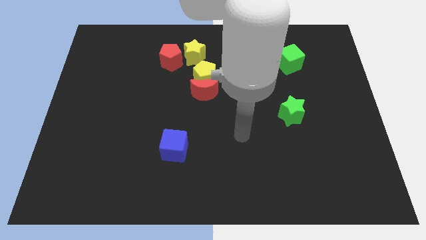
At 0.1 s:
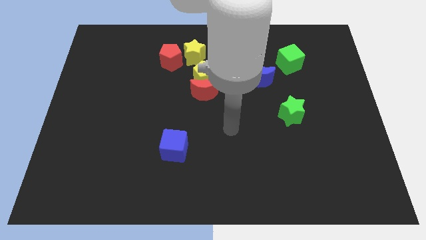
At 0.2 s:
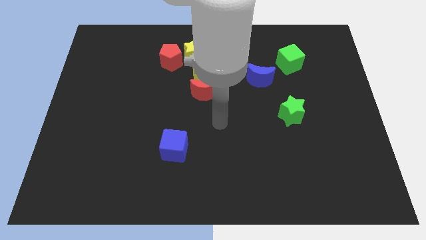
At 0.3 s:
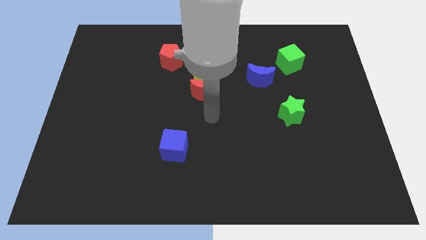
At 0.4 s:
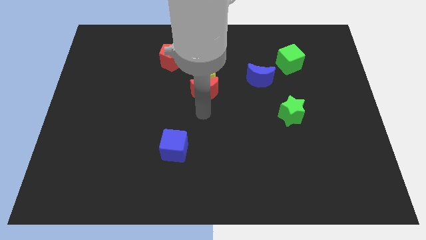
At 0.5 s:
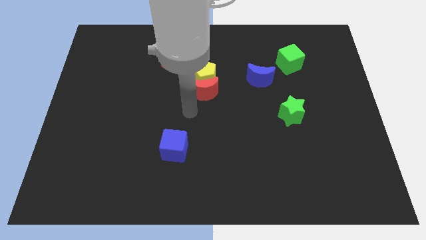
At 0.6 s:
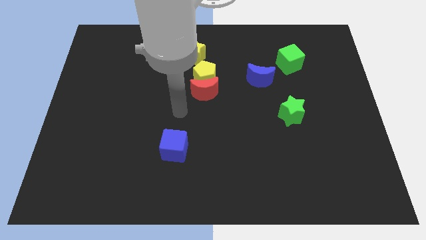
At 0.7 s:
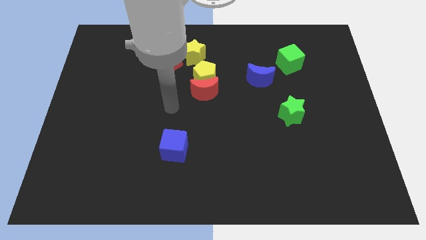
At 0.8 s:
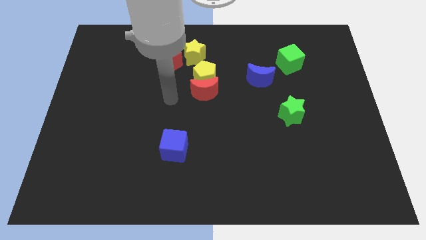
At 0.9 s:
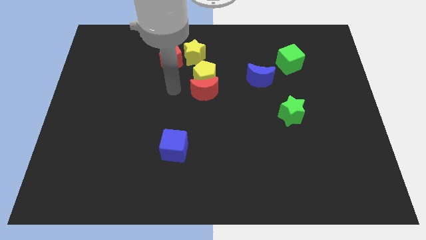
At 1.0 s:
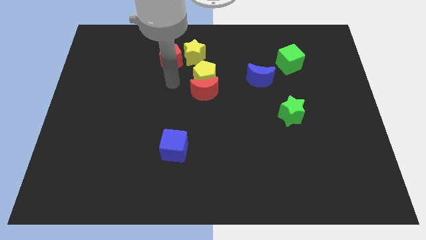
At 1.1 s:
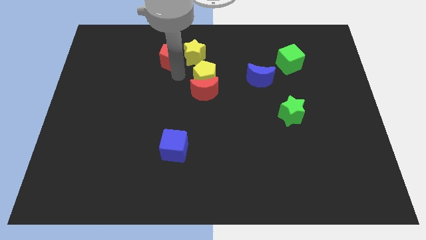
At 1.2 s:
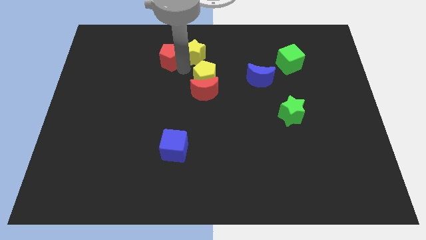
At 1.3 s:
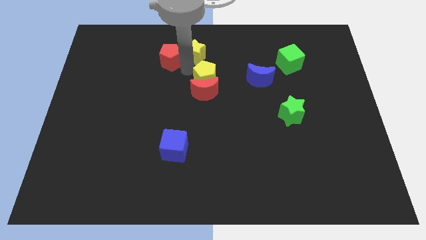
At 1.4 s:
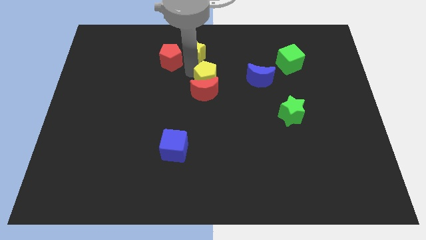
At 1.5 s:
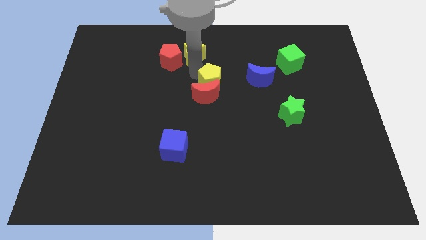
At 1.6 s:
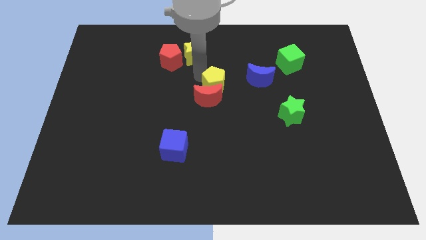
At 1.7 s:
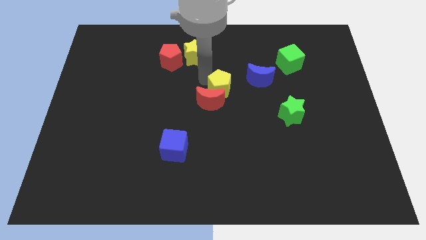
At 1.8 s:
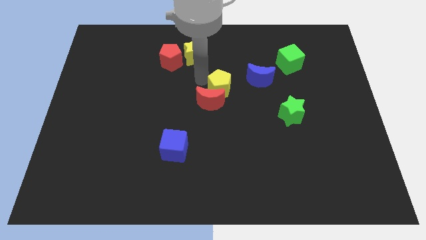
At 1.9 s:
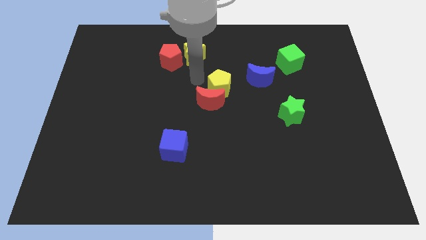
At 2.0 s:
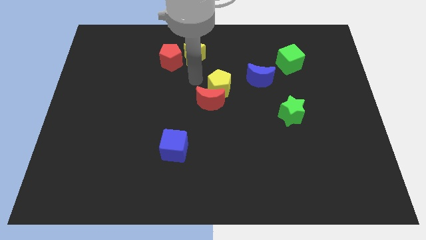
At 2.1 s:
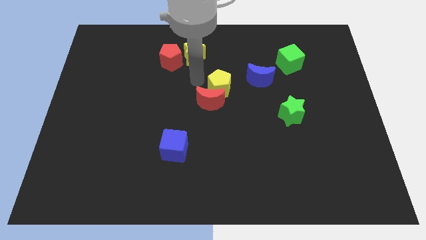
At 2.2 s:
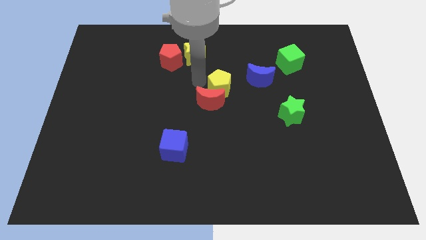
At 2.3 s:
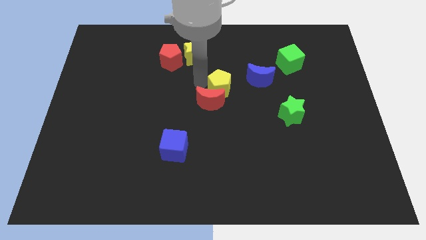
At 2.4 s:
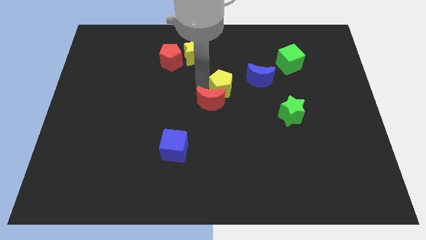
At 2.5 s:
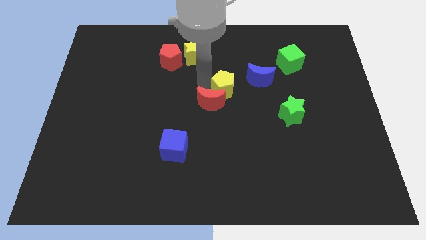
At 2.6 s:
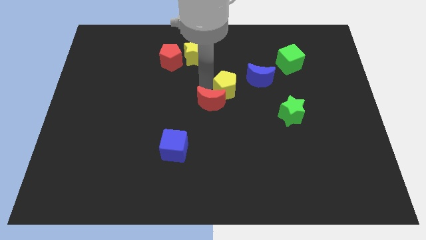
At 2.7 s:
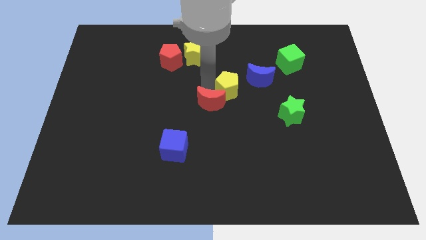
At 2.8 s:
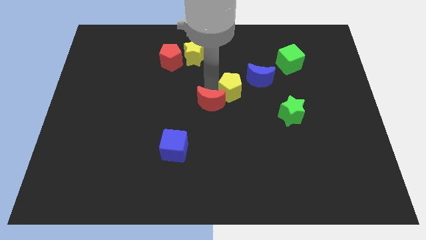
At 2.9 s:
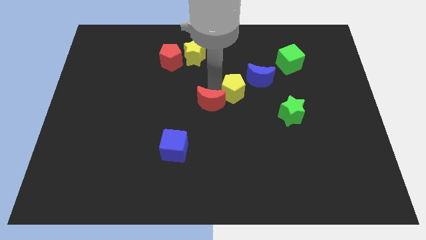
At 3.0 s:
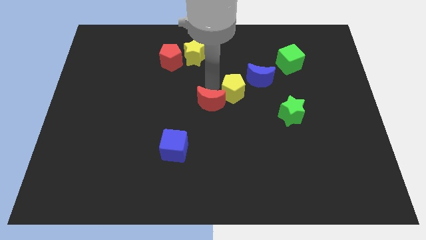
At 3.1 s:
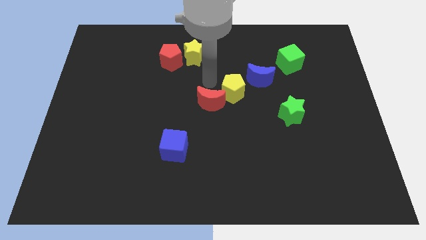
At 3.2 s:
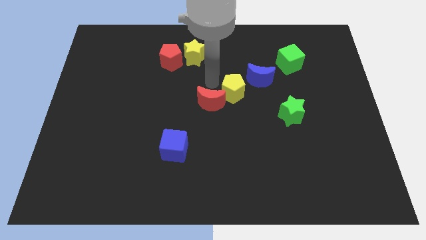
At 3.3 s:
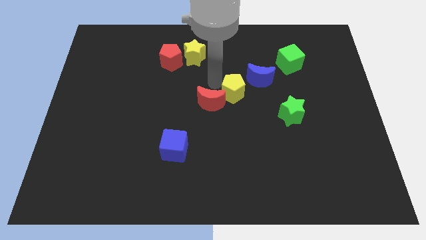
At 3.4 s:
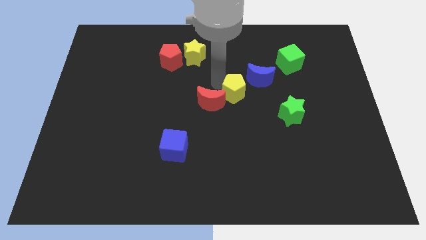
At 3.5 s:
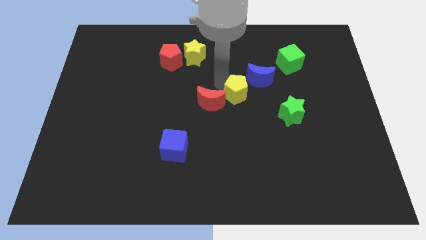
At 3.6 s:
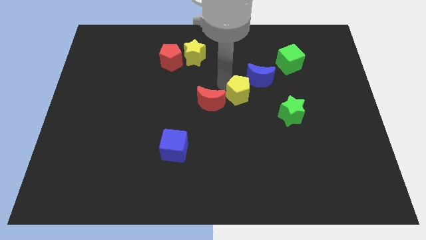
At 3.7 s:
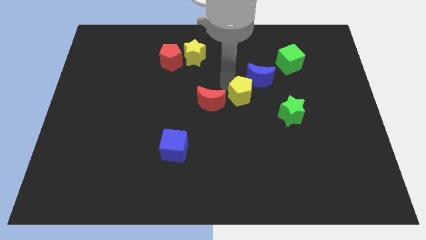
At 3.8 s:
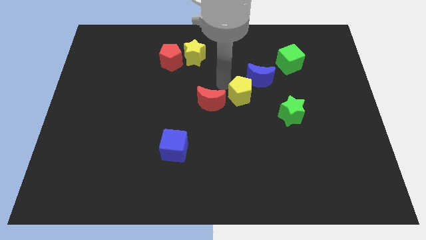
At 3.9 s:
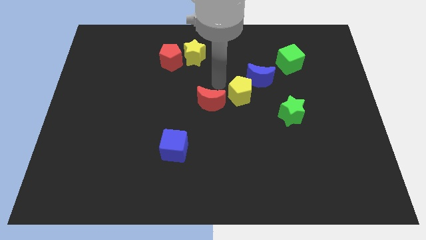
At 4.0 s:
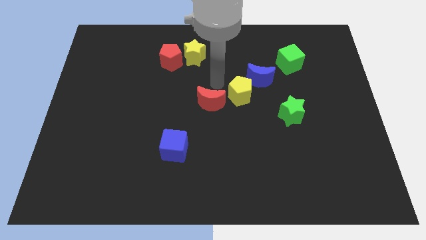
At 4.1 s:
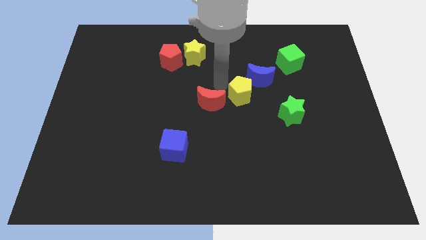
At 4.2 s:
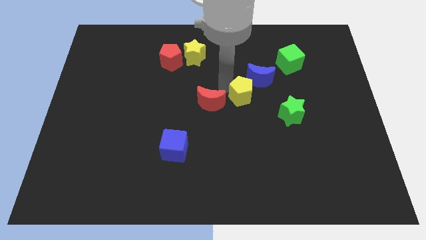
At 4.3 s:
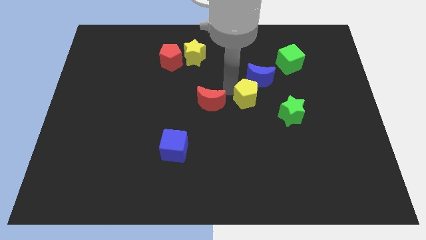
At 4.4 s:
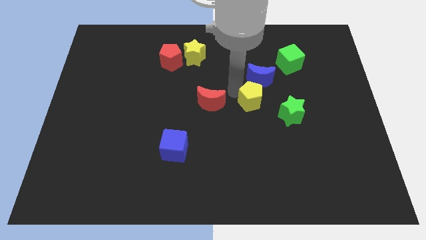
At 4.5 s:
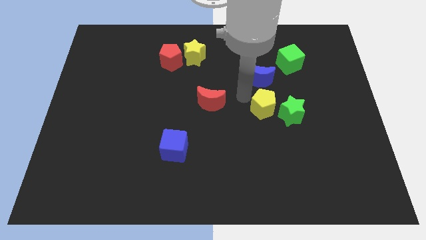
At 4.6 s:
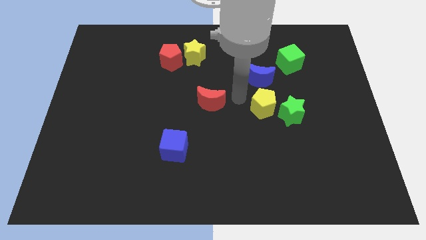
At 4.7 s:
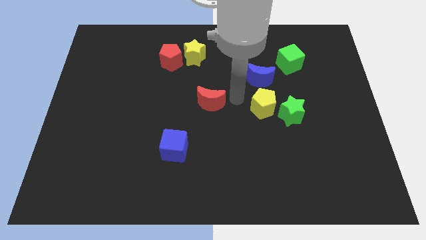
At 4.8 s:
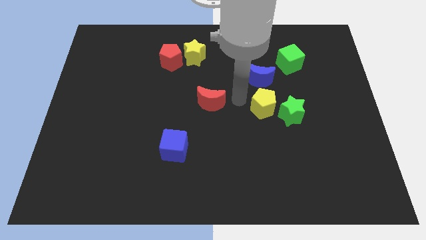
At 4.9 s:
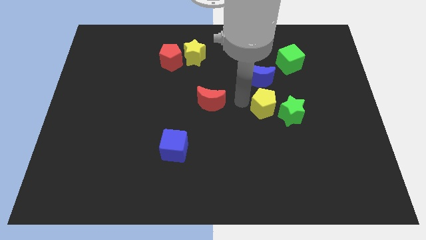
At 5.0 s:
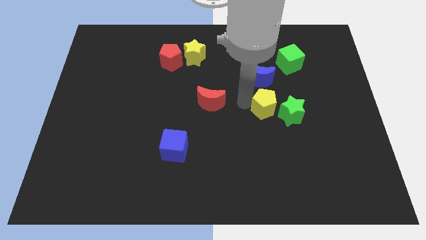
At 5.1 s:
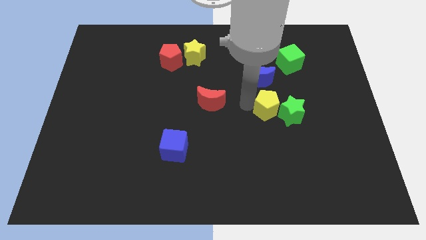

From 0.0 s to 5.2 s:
move the yellow pentagon towards the green star

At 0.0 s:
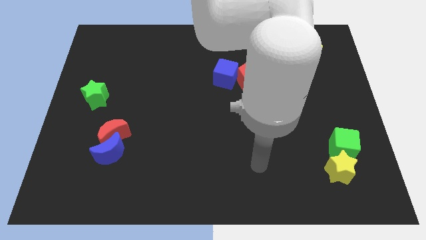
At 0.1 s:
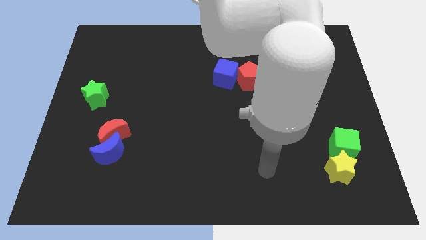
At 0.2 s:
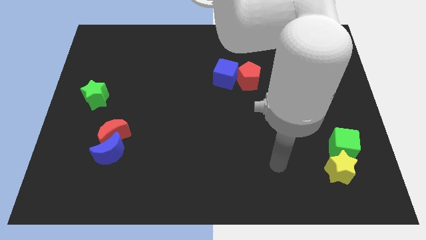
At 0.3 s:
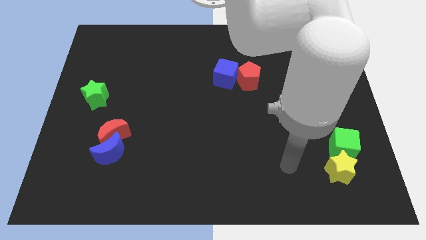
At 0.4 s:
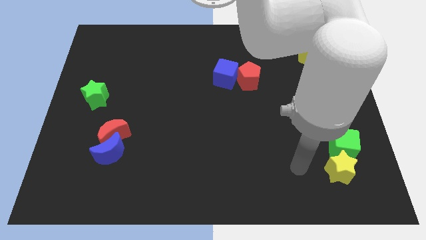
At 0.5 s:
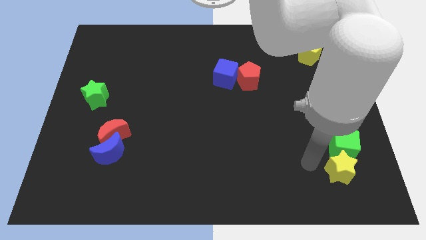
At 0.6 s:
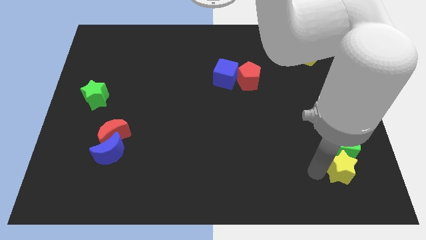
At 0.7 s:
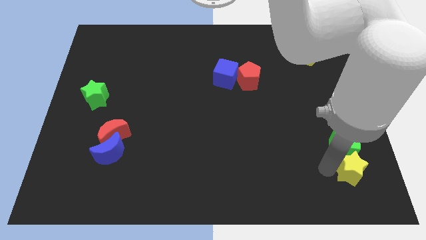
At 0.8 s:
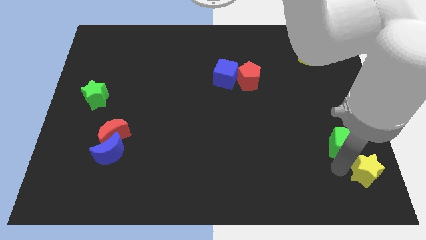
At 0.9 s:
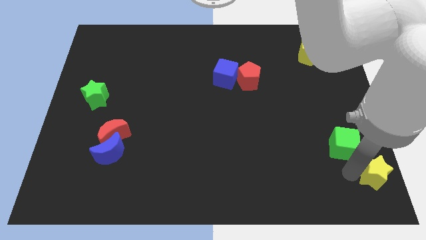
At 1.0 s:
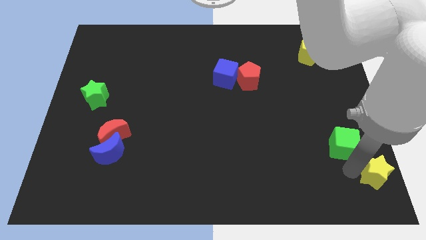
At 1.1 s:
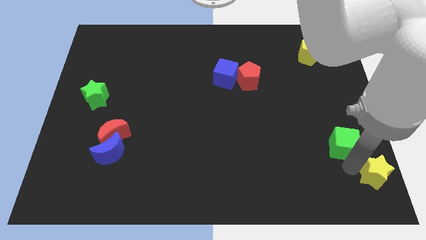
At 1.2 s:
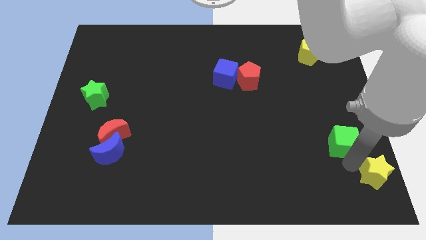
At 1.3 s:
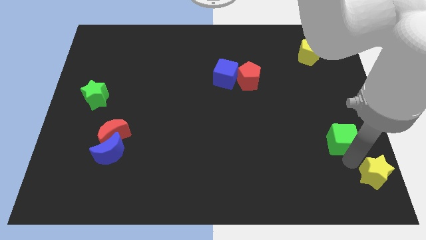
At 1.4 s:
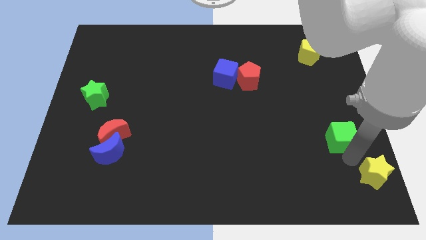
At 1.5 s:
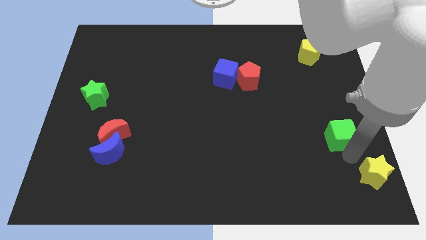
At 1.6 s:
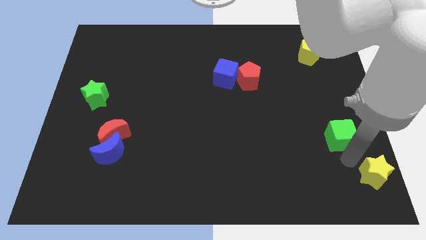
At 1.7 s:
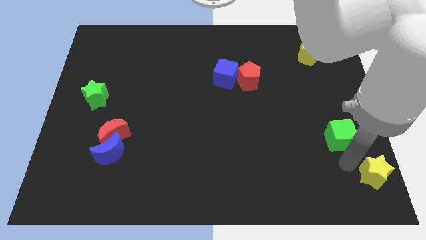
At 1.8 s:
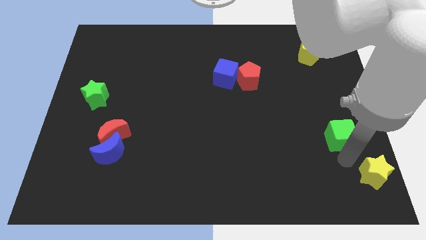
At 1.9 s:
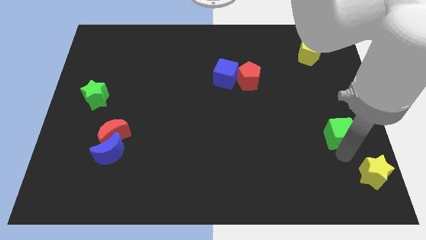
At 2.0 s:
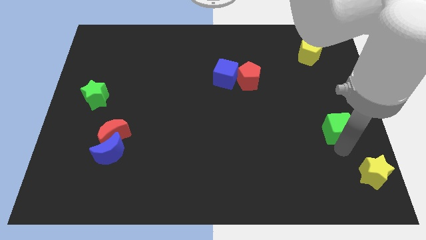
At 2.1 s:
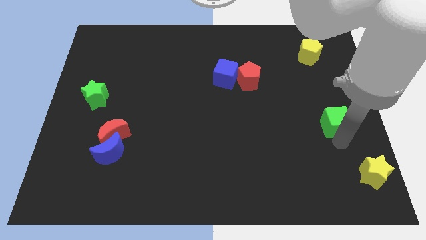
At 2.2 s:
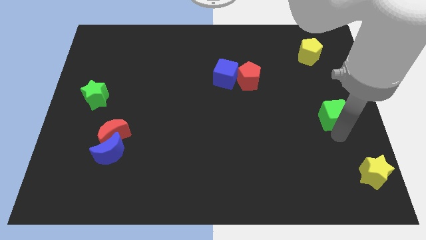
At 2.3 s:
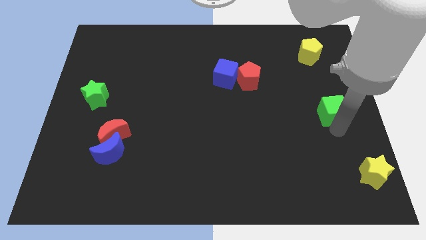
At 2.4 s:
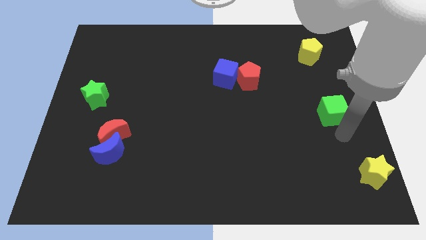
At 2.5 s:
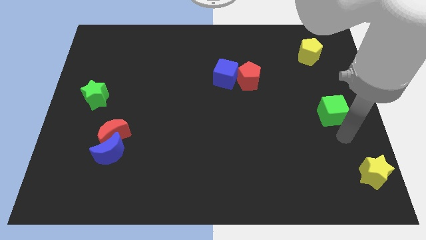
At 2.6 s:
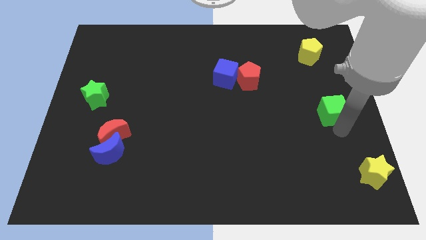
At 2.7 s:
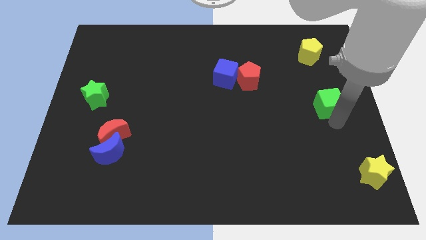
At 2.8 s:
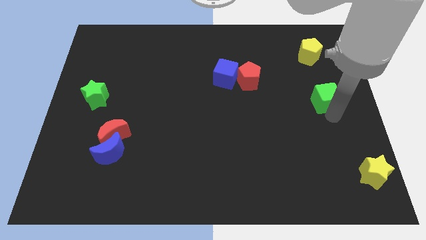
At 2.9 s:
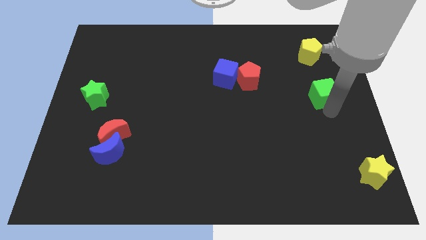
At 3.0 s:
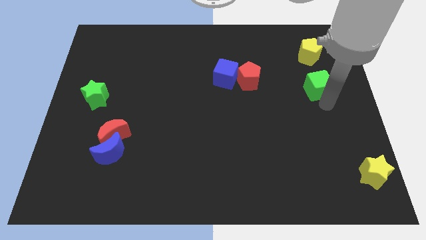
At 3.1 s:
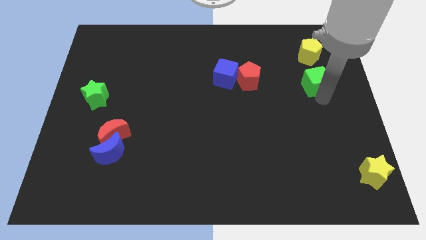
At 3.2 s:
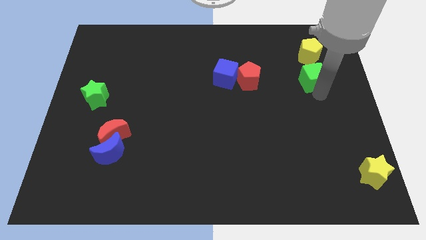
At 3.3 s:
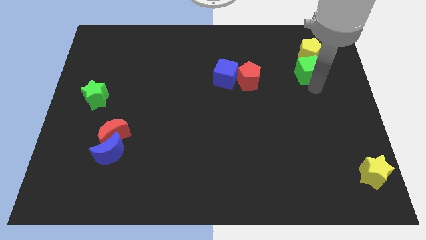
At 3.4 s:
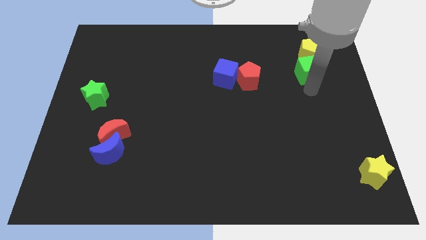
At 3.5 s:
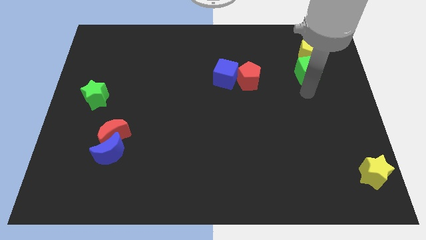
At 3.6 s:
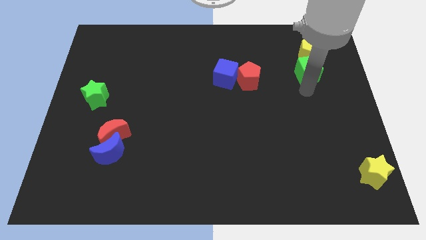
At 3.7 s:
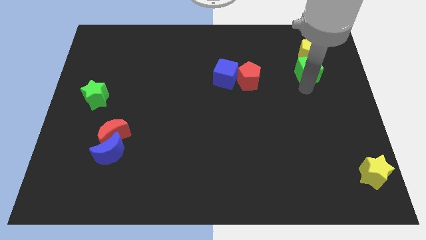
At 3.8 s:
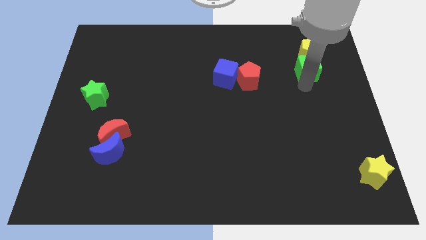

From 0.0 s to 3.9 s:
push the green cube next to the yellow pentagon
